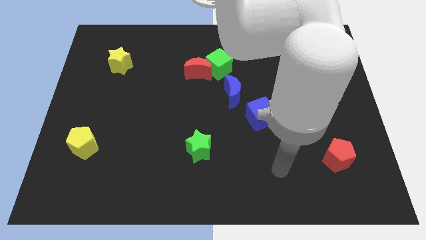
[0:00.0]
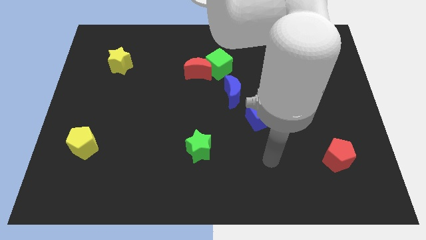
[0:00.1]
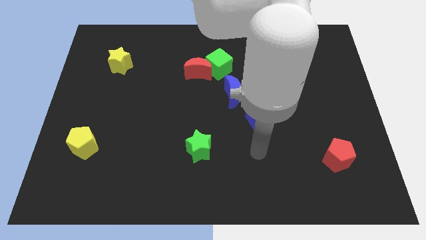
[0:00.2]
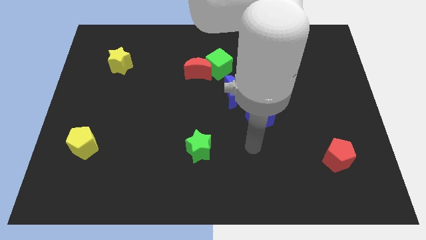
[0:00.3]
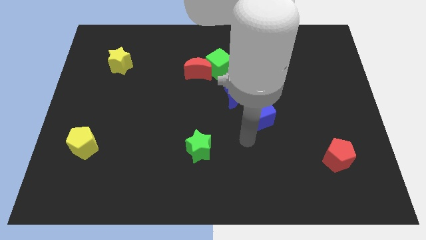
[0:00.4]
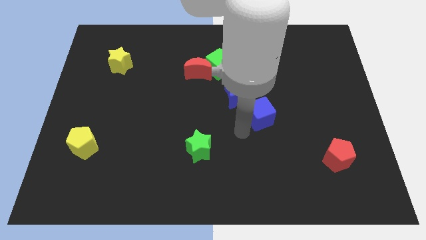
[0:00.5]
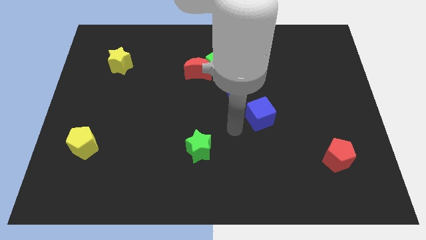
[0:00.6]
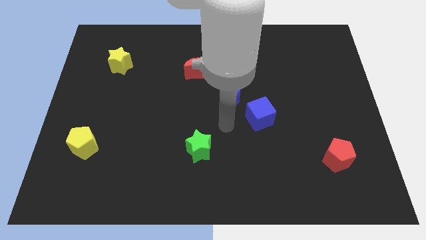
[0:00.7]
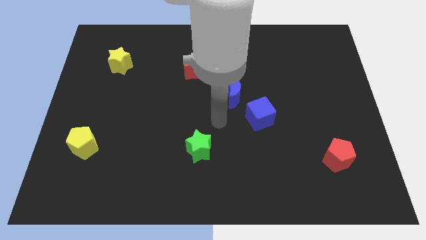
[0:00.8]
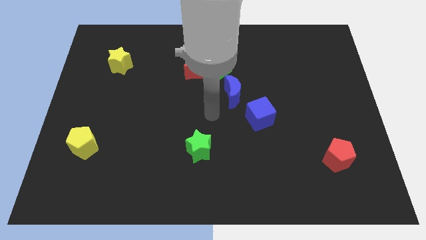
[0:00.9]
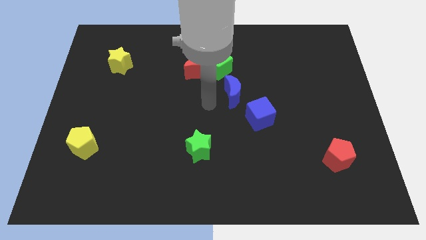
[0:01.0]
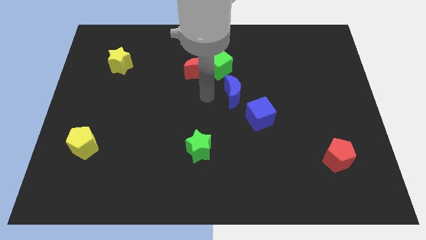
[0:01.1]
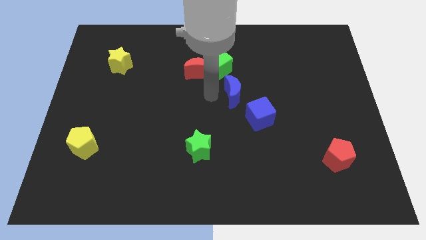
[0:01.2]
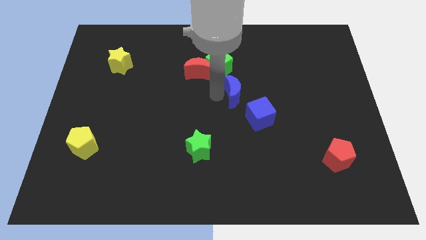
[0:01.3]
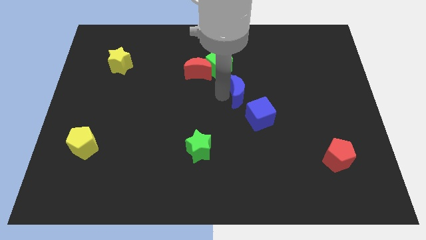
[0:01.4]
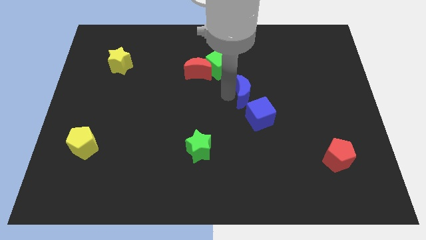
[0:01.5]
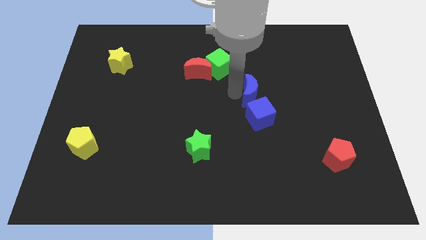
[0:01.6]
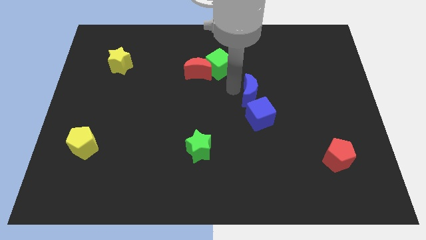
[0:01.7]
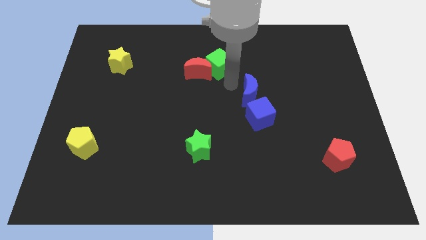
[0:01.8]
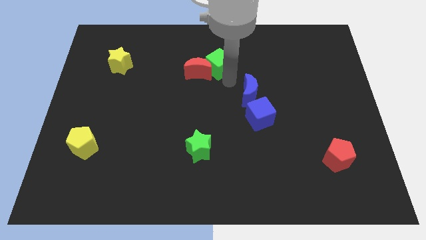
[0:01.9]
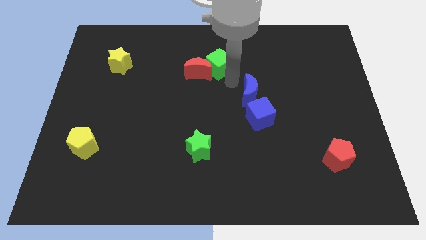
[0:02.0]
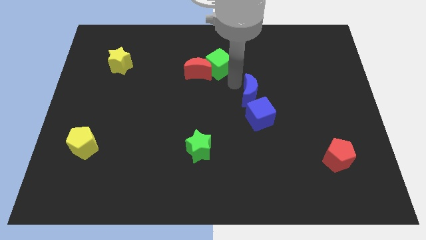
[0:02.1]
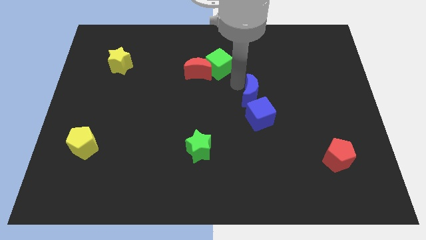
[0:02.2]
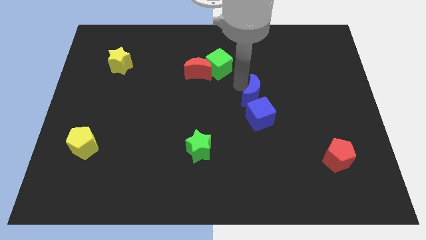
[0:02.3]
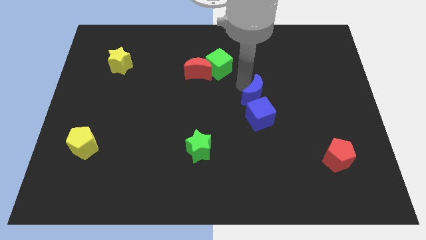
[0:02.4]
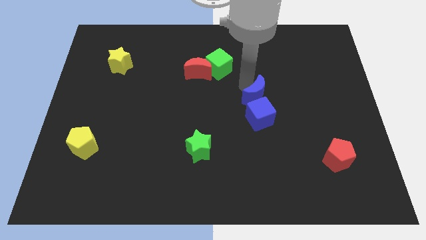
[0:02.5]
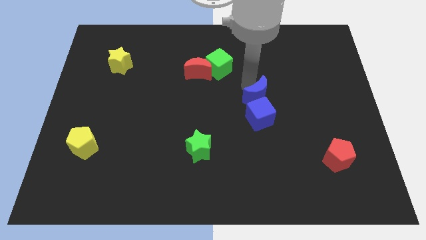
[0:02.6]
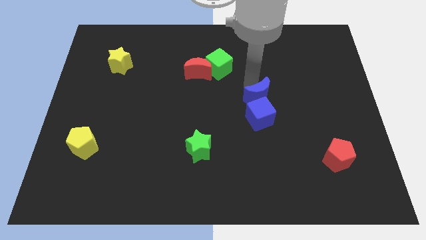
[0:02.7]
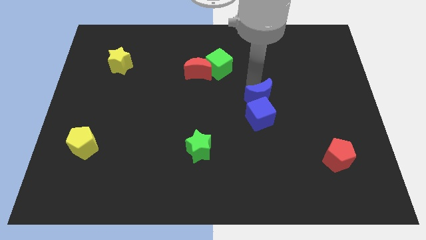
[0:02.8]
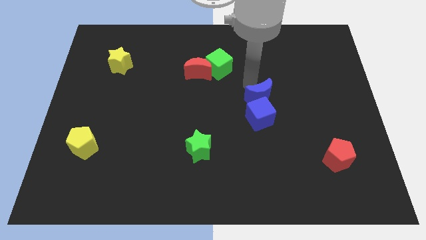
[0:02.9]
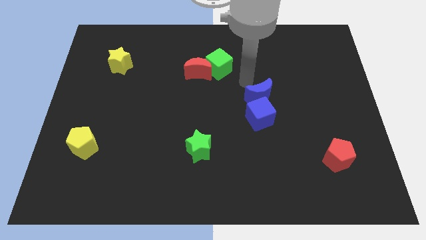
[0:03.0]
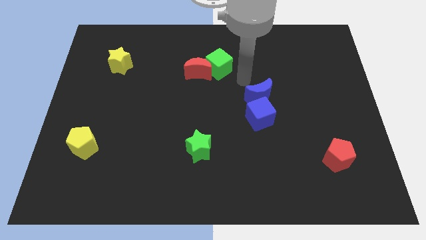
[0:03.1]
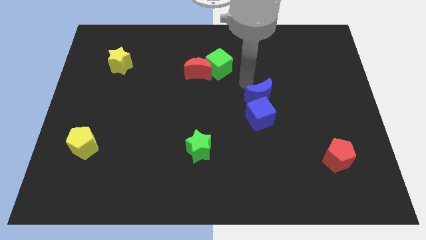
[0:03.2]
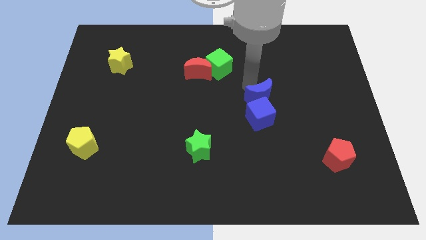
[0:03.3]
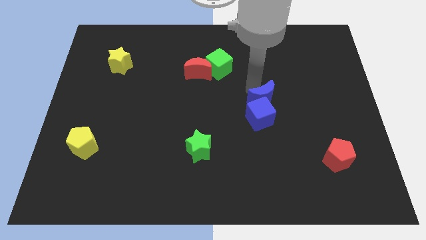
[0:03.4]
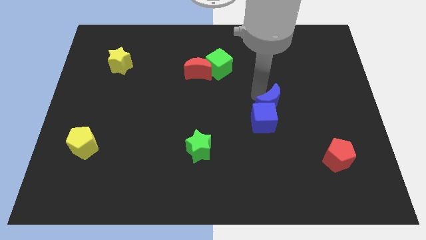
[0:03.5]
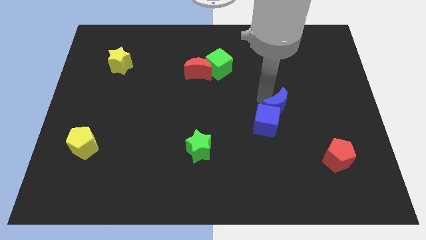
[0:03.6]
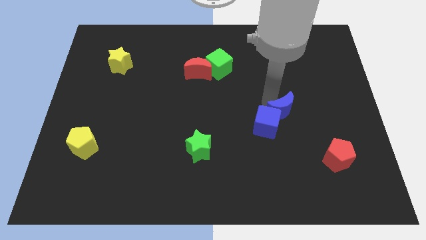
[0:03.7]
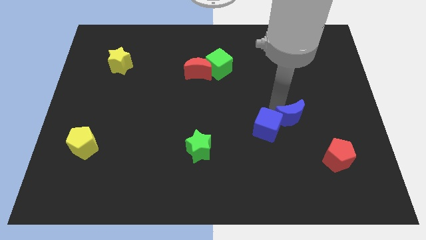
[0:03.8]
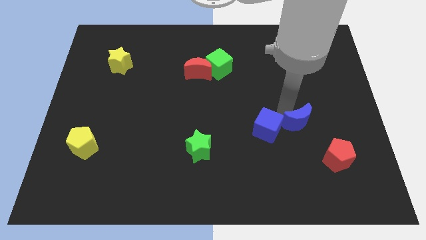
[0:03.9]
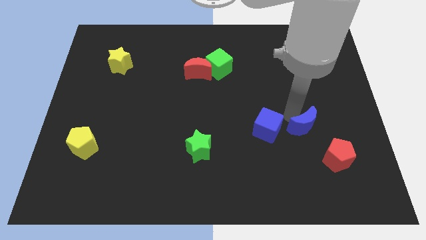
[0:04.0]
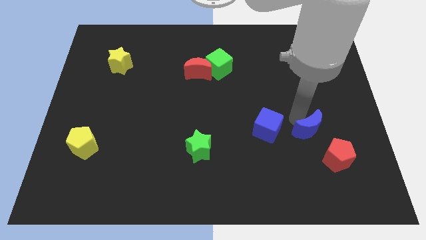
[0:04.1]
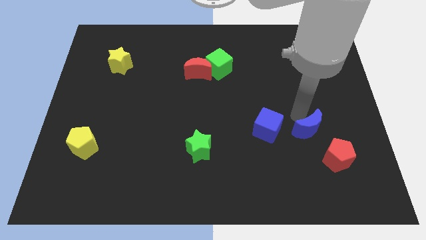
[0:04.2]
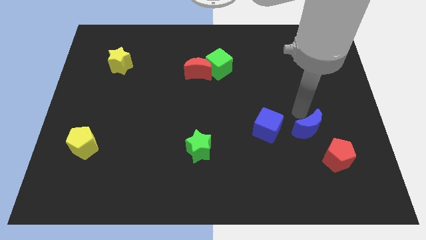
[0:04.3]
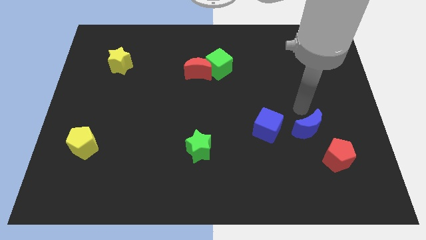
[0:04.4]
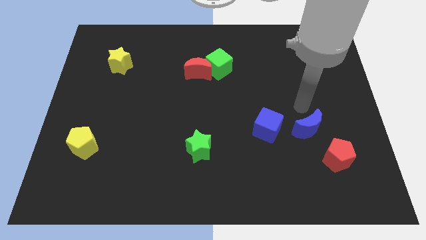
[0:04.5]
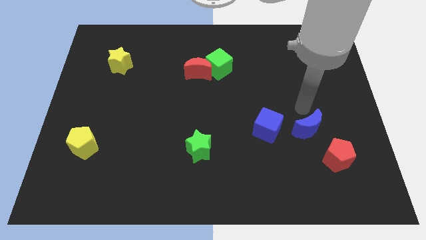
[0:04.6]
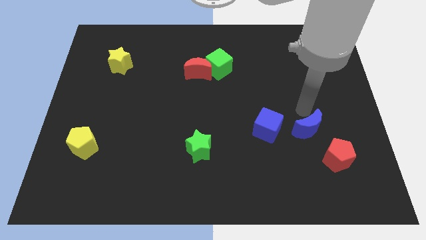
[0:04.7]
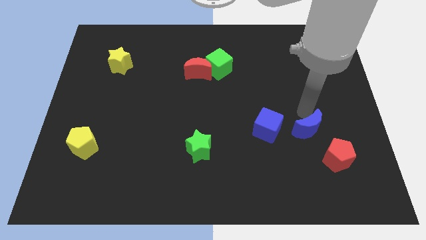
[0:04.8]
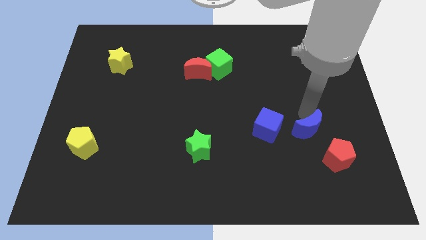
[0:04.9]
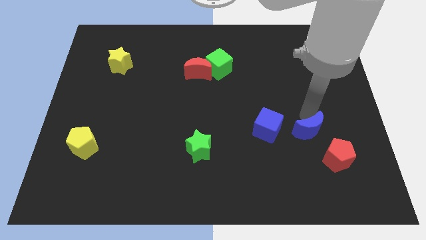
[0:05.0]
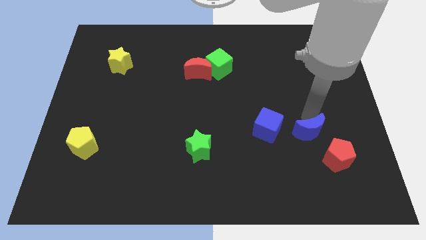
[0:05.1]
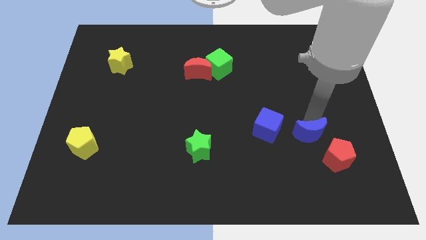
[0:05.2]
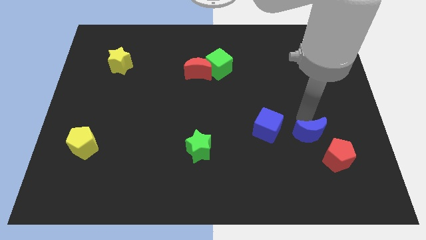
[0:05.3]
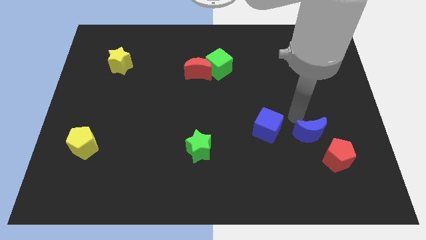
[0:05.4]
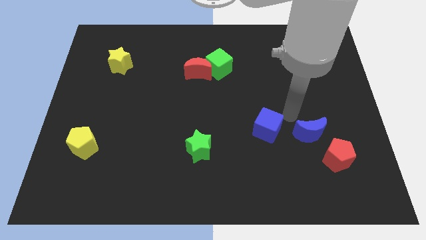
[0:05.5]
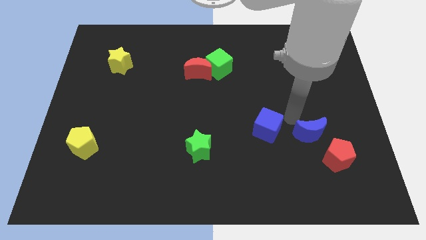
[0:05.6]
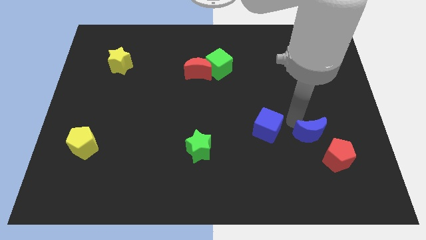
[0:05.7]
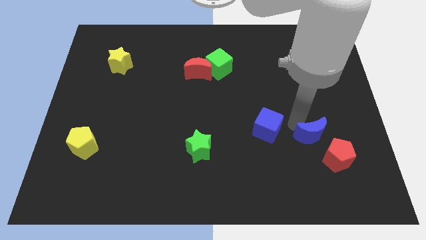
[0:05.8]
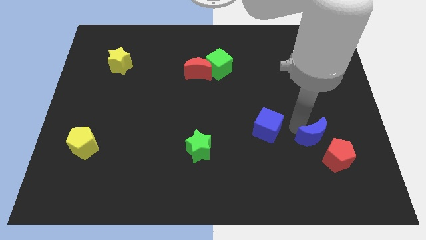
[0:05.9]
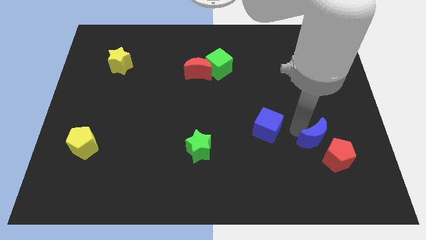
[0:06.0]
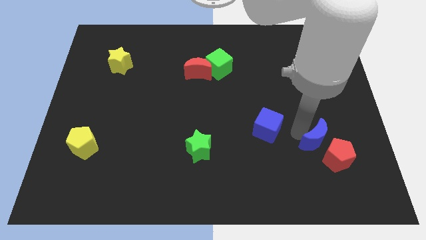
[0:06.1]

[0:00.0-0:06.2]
slide the blue moon next to the red pentagon

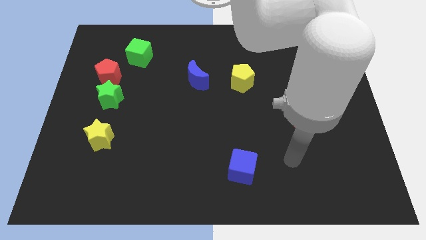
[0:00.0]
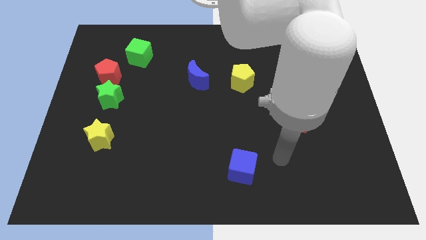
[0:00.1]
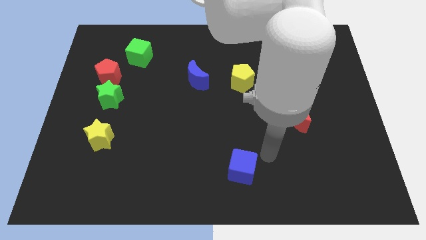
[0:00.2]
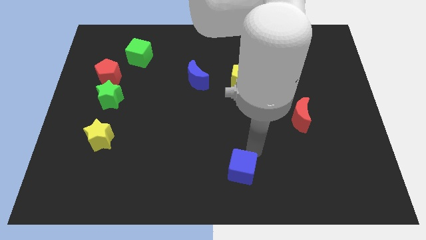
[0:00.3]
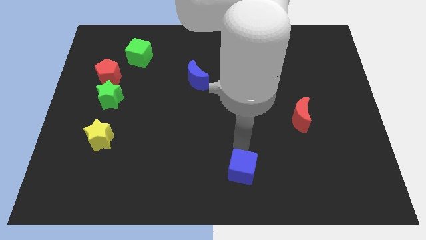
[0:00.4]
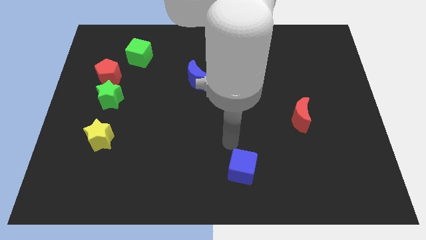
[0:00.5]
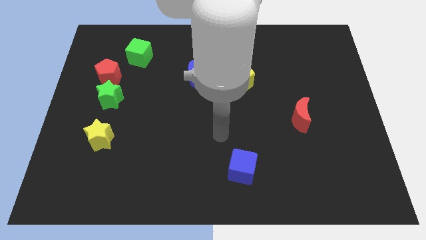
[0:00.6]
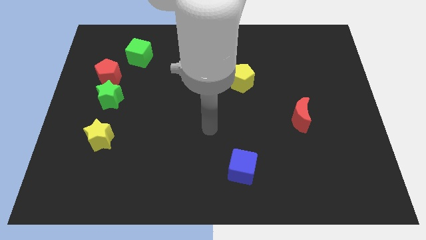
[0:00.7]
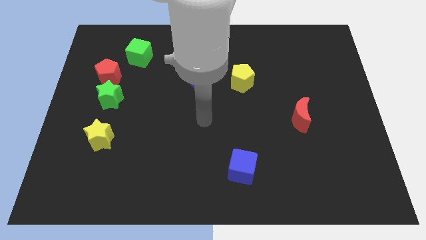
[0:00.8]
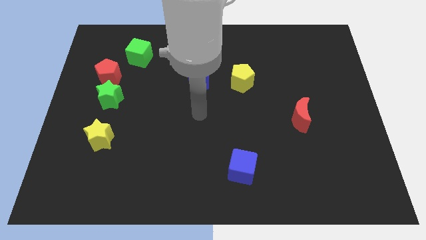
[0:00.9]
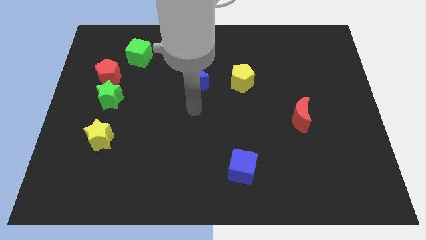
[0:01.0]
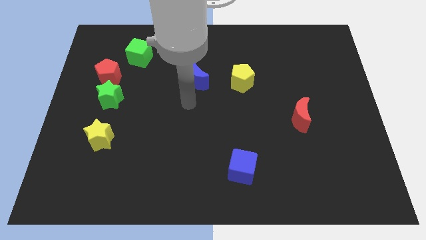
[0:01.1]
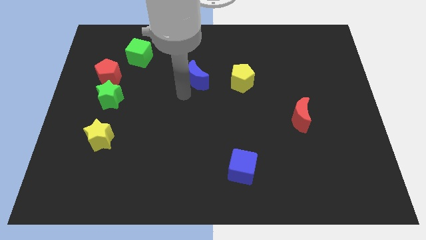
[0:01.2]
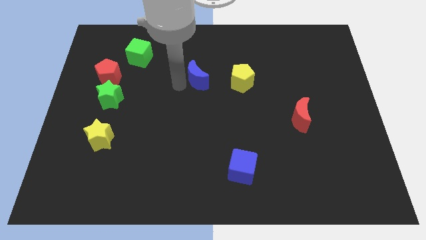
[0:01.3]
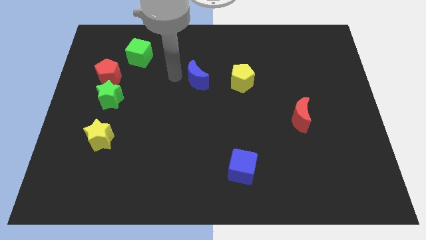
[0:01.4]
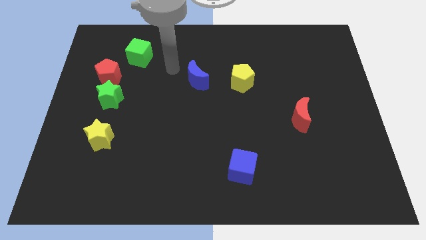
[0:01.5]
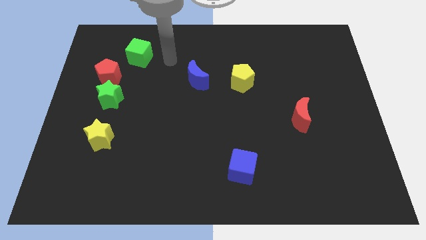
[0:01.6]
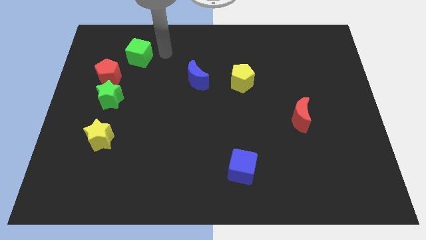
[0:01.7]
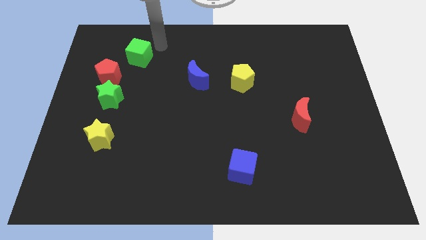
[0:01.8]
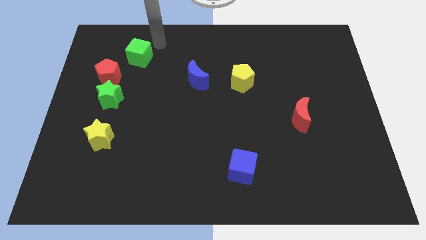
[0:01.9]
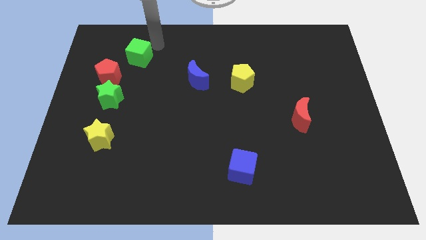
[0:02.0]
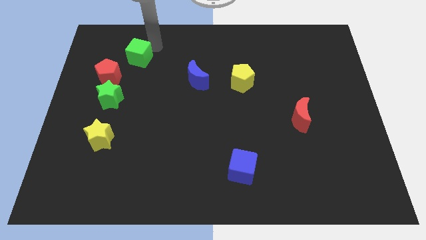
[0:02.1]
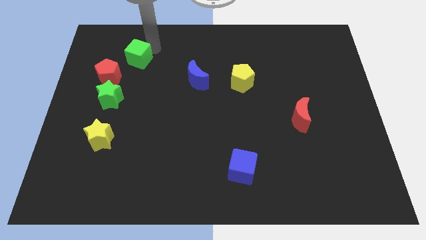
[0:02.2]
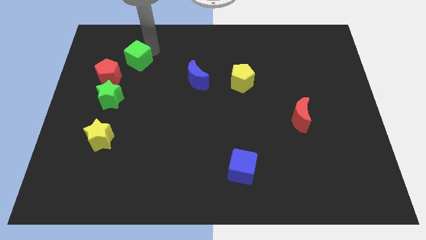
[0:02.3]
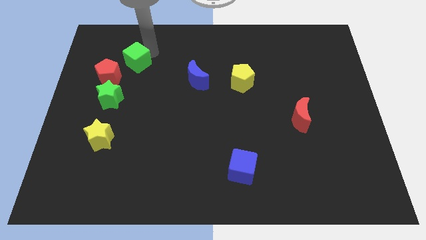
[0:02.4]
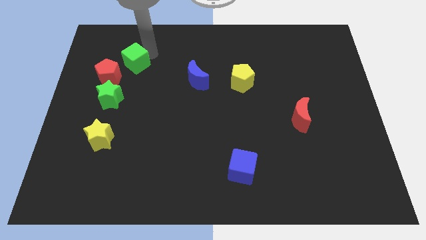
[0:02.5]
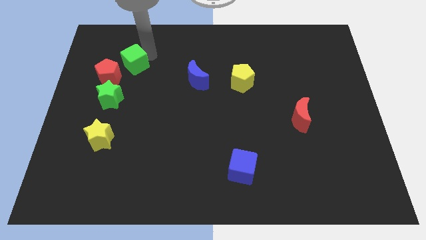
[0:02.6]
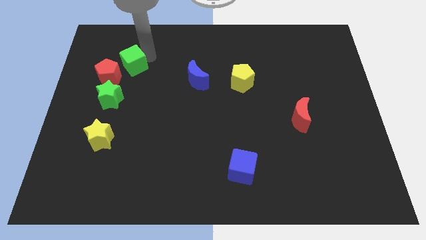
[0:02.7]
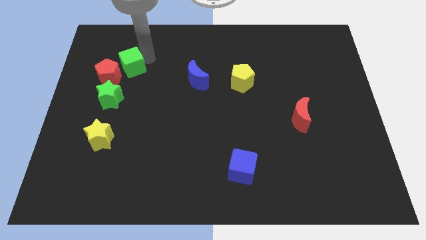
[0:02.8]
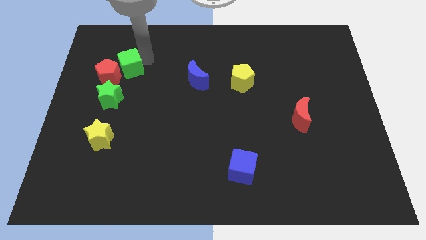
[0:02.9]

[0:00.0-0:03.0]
slide the green cube close to the red pentagon
